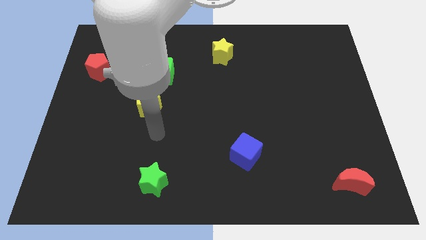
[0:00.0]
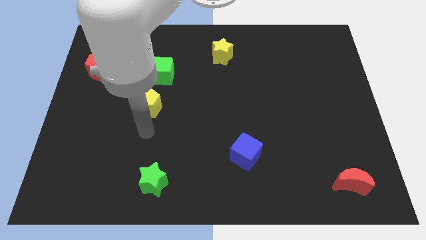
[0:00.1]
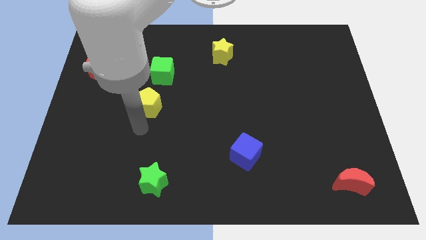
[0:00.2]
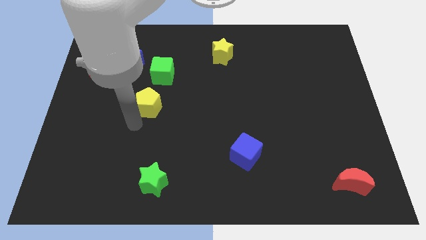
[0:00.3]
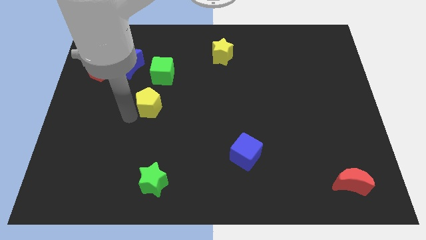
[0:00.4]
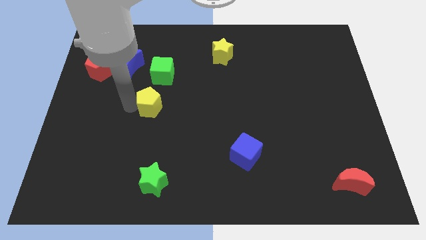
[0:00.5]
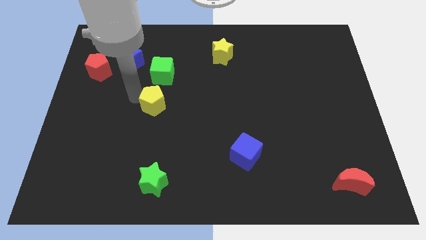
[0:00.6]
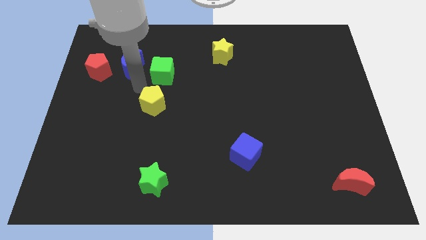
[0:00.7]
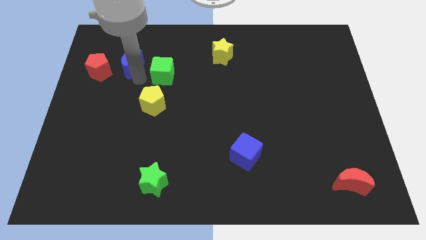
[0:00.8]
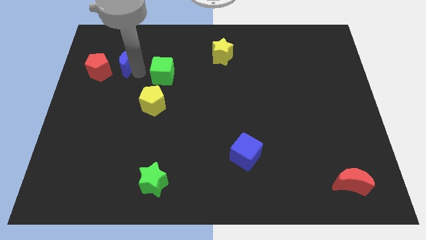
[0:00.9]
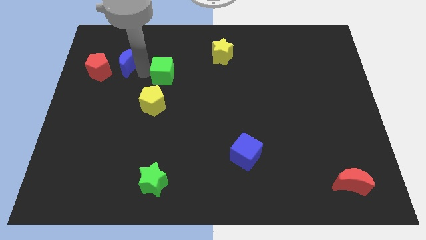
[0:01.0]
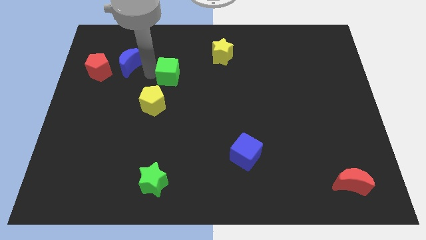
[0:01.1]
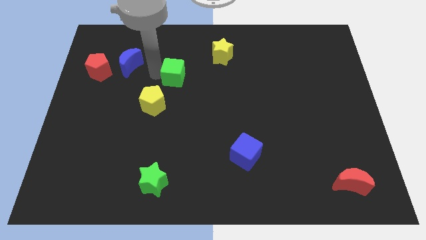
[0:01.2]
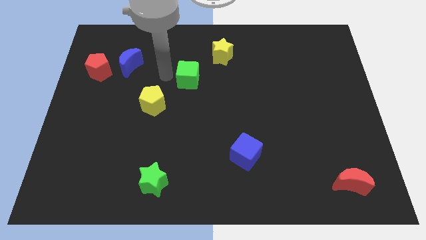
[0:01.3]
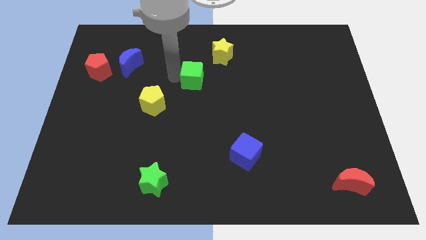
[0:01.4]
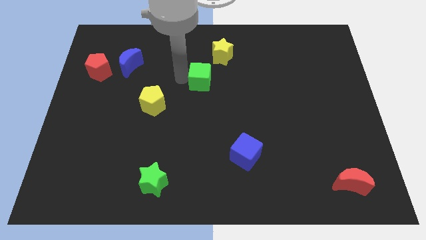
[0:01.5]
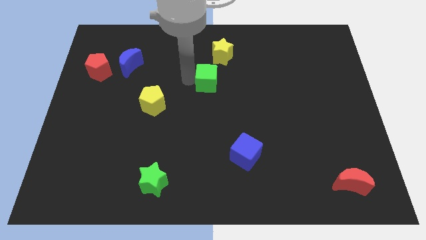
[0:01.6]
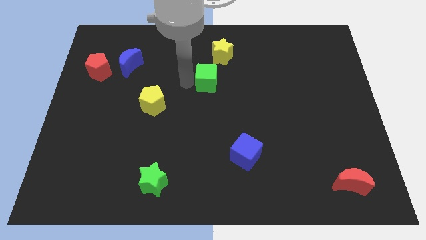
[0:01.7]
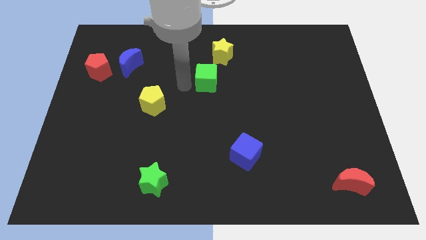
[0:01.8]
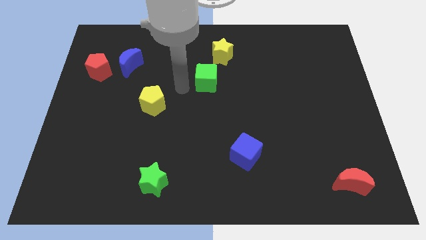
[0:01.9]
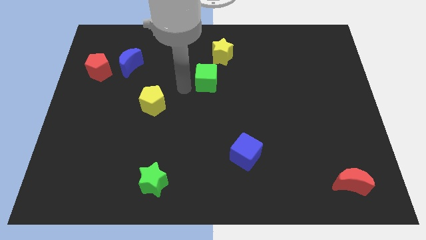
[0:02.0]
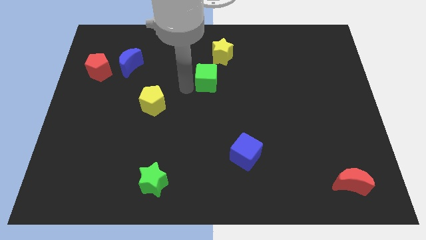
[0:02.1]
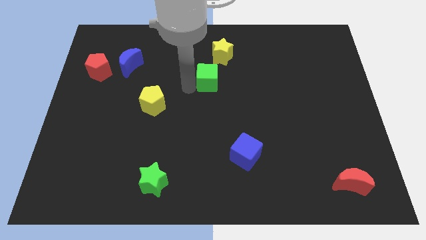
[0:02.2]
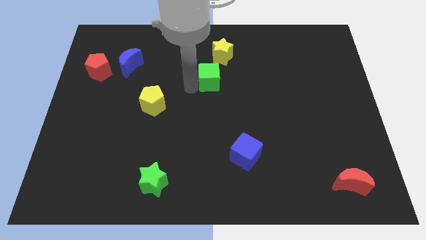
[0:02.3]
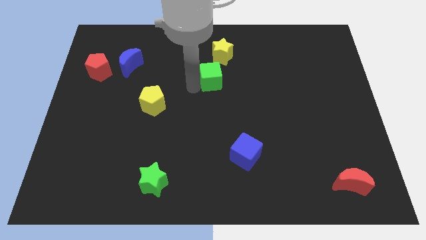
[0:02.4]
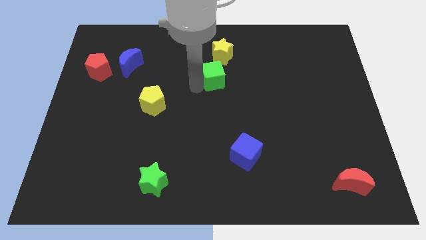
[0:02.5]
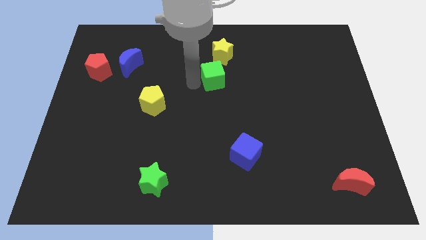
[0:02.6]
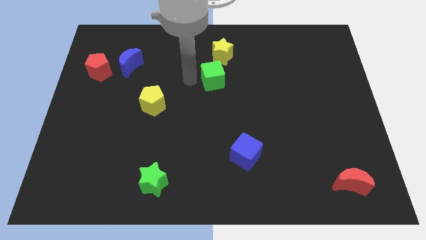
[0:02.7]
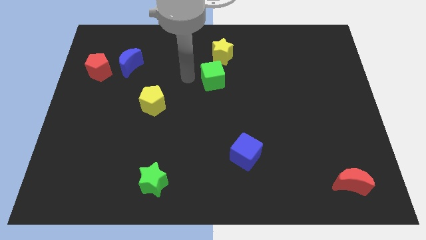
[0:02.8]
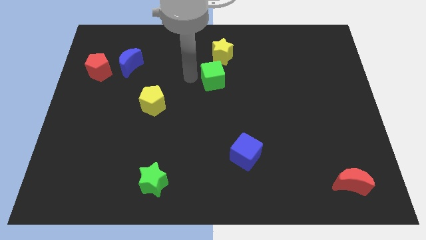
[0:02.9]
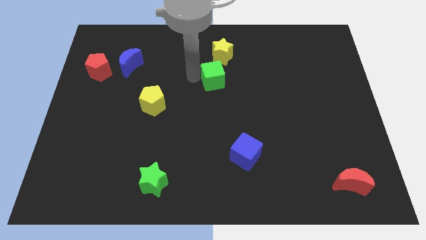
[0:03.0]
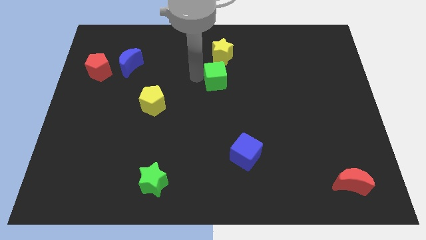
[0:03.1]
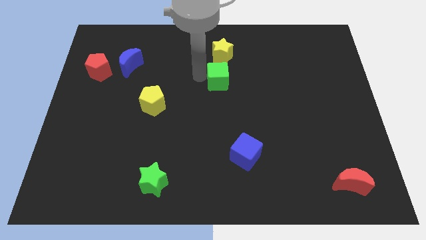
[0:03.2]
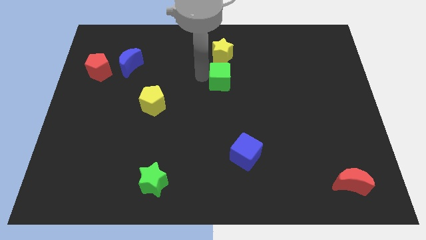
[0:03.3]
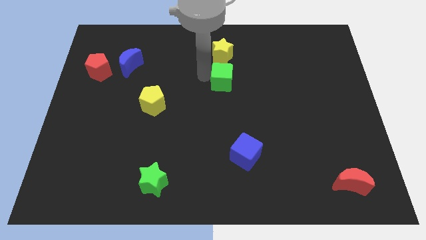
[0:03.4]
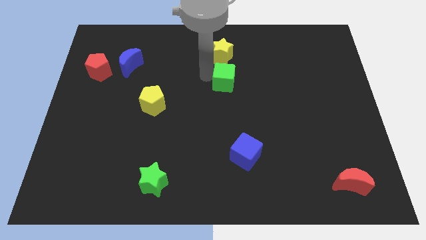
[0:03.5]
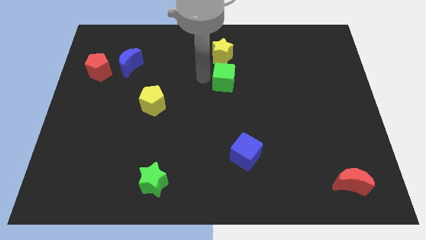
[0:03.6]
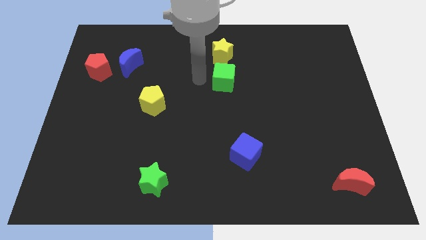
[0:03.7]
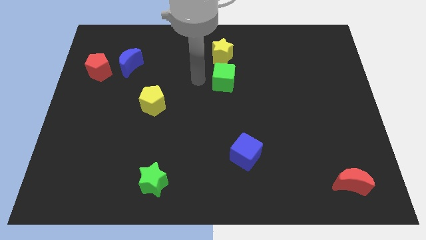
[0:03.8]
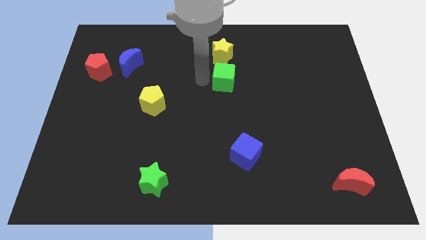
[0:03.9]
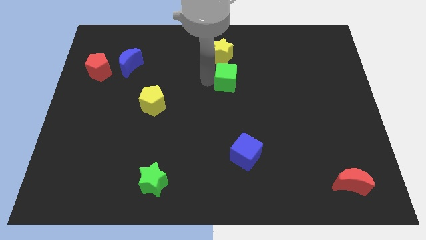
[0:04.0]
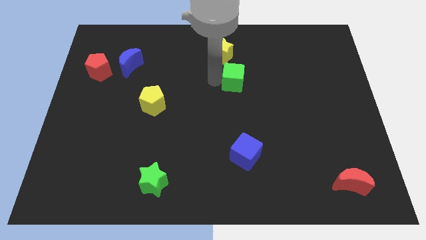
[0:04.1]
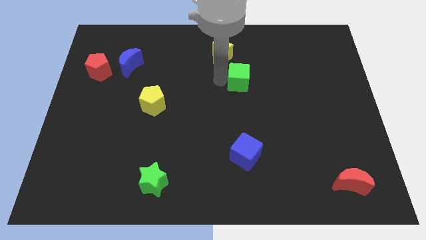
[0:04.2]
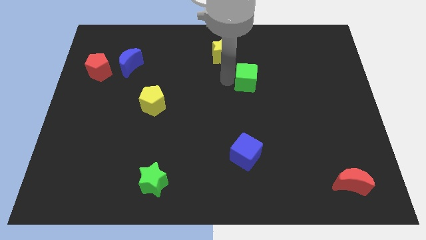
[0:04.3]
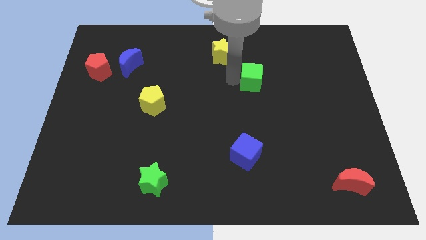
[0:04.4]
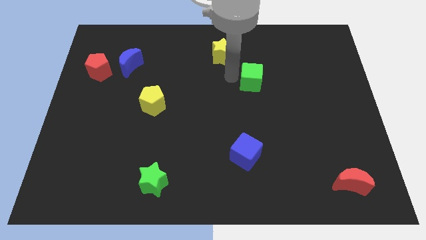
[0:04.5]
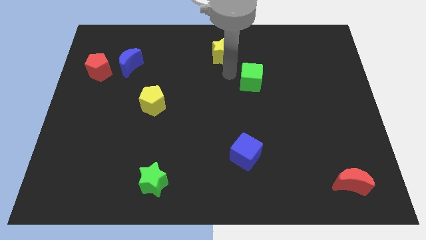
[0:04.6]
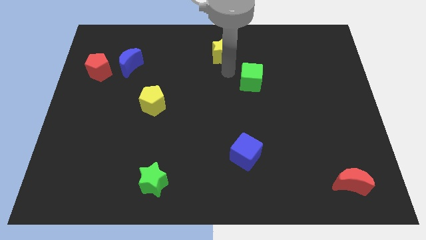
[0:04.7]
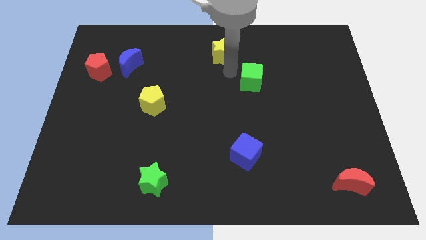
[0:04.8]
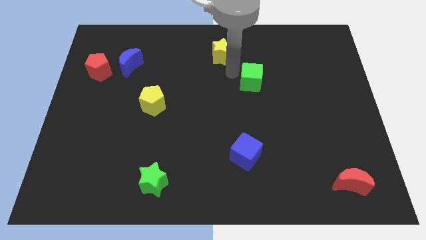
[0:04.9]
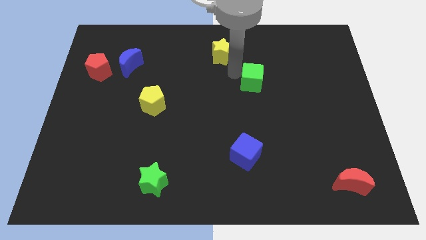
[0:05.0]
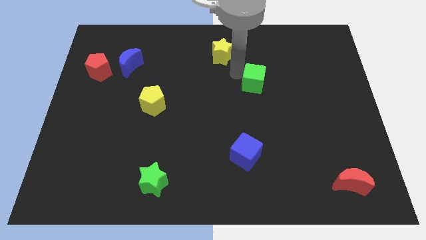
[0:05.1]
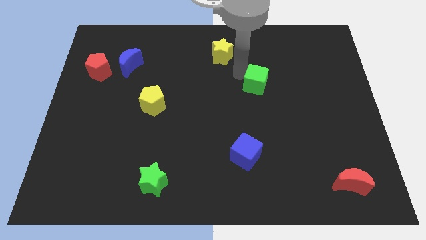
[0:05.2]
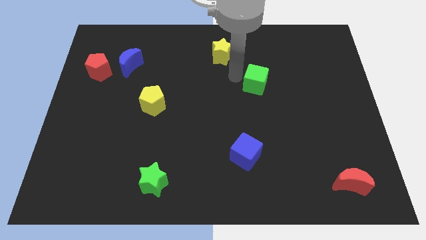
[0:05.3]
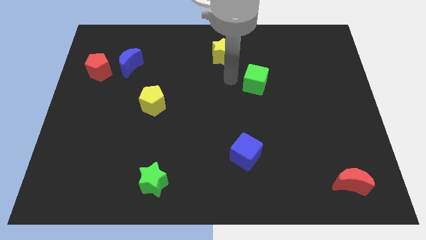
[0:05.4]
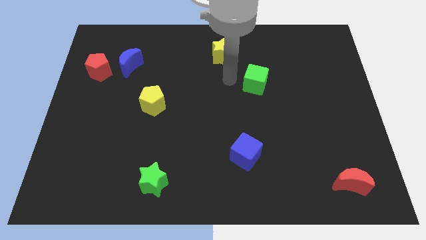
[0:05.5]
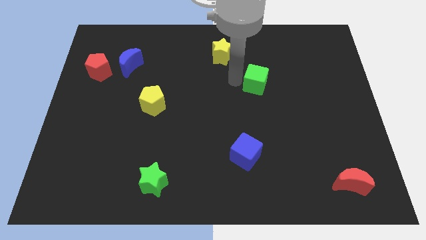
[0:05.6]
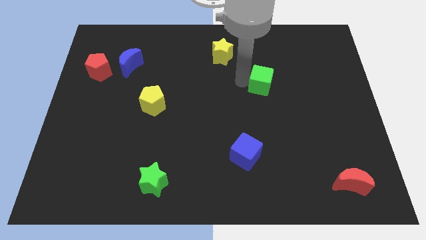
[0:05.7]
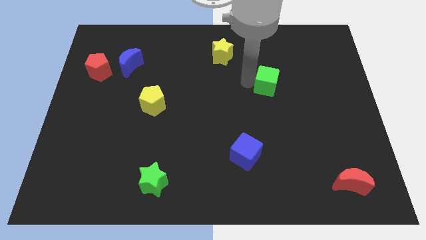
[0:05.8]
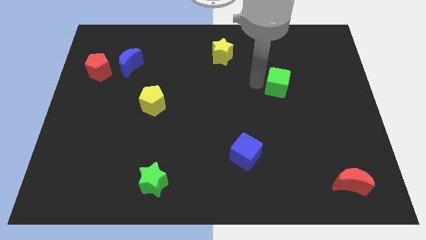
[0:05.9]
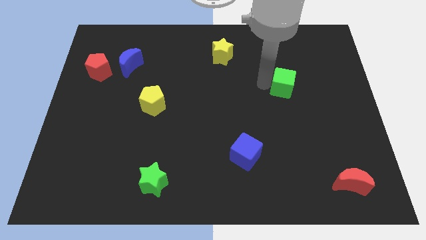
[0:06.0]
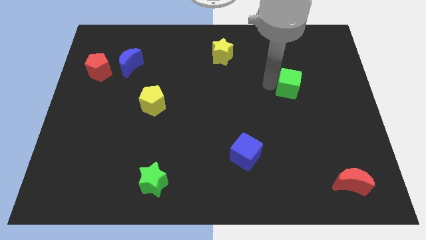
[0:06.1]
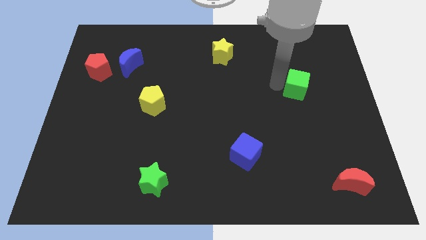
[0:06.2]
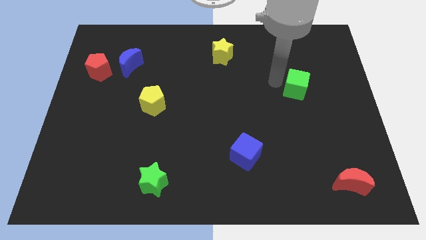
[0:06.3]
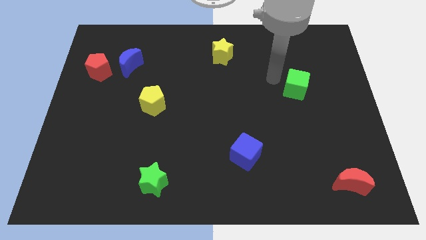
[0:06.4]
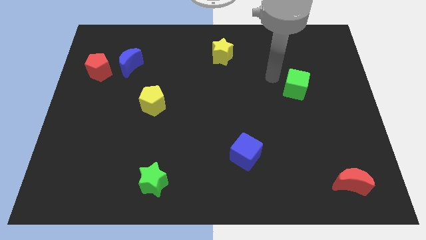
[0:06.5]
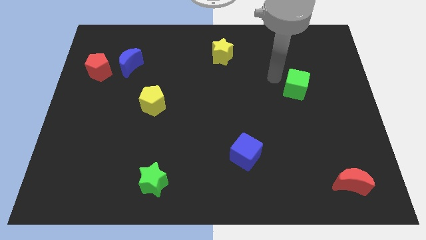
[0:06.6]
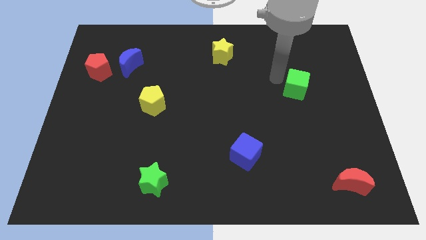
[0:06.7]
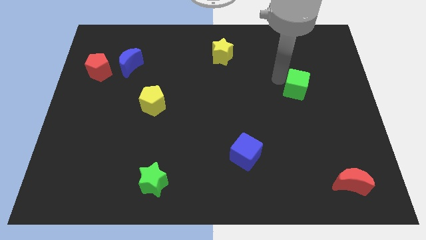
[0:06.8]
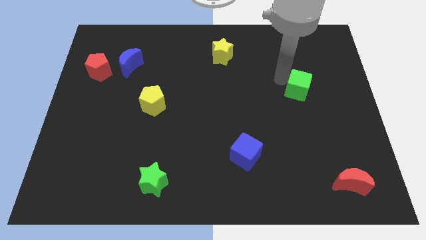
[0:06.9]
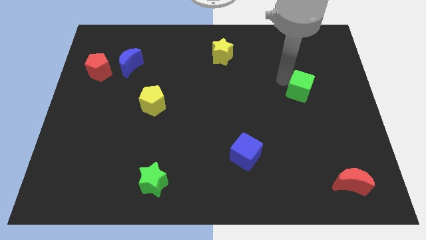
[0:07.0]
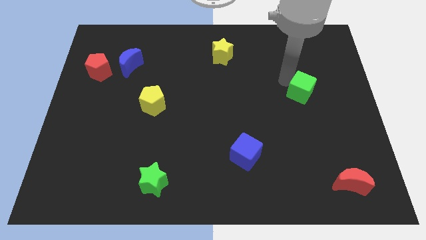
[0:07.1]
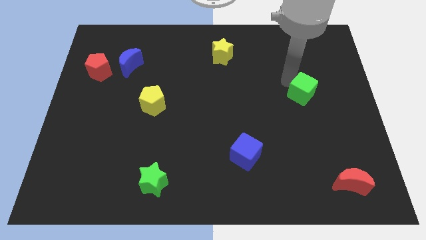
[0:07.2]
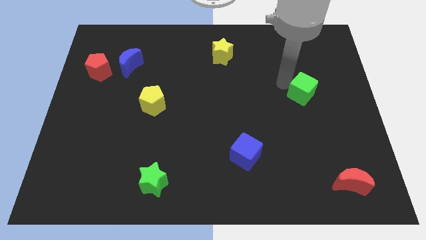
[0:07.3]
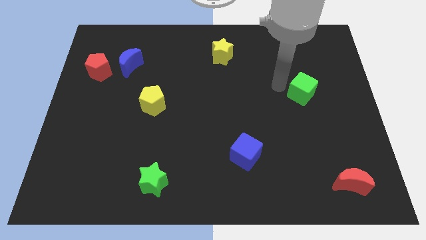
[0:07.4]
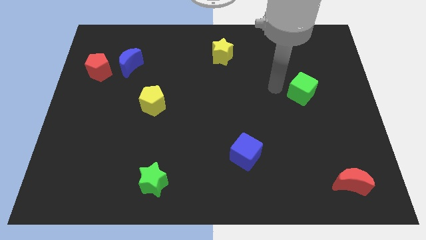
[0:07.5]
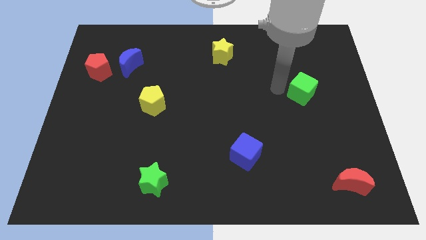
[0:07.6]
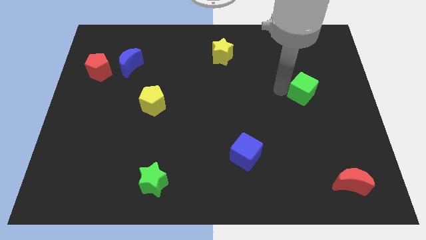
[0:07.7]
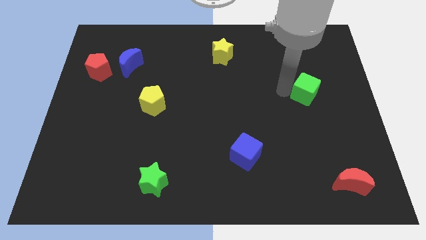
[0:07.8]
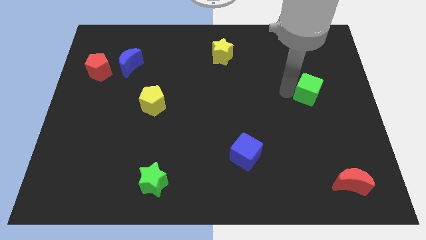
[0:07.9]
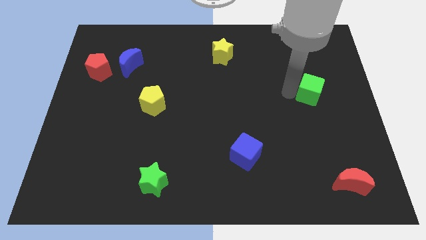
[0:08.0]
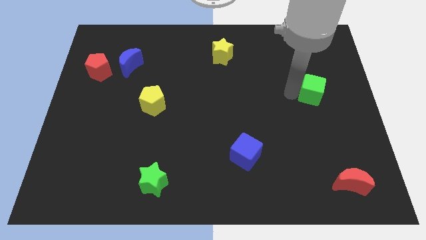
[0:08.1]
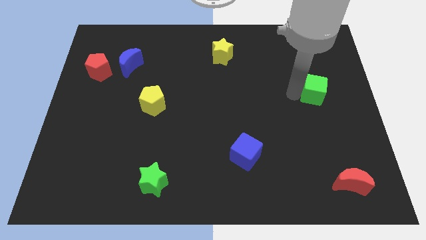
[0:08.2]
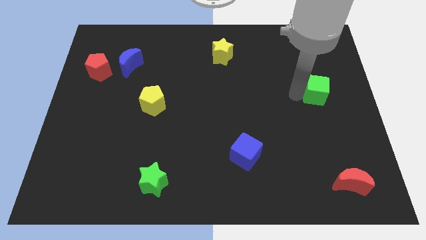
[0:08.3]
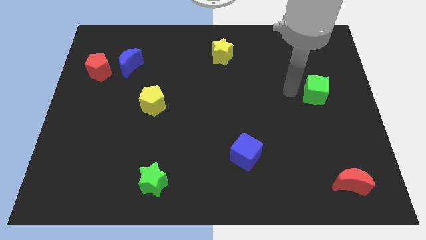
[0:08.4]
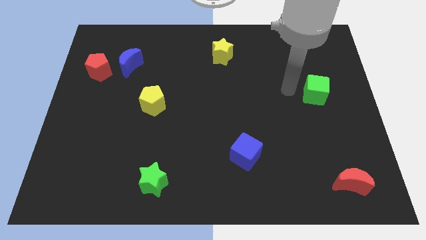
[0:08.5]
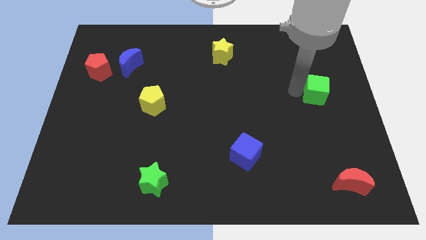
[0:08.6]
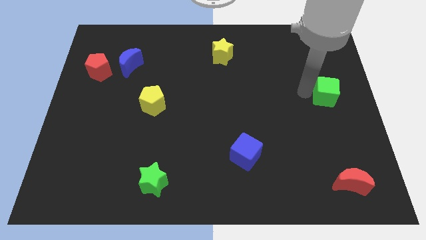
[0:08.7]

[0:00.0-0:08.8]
put the green cube to the center right
